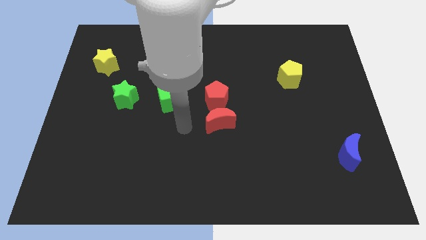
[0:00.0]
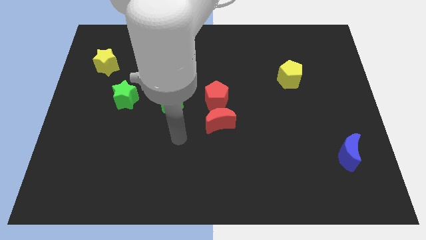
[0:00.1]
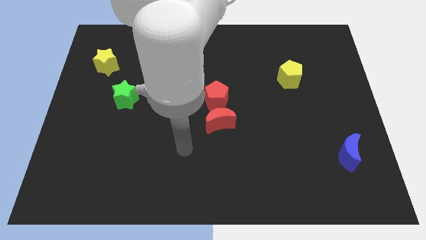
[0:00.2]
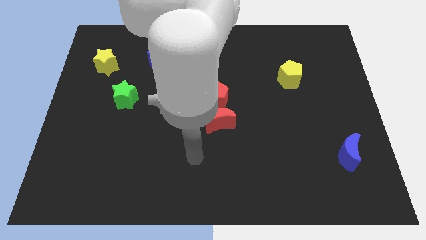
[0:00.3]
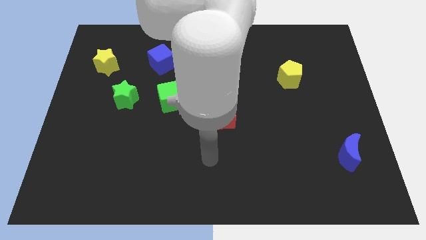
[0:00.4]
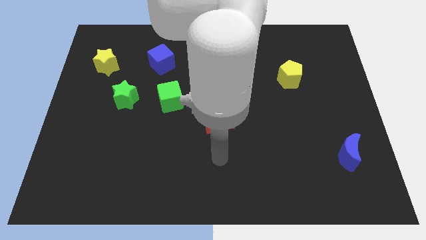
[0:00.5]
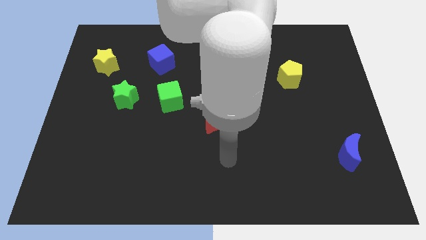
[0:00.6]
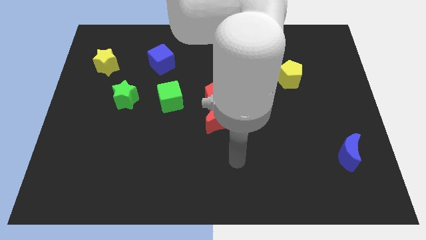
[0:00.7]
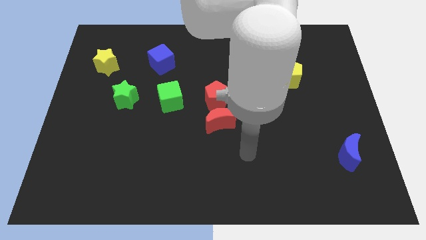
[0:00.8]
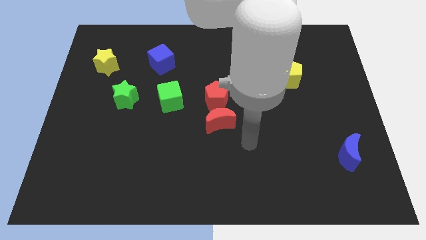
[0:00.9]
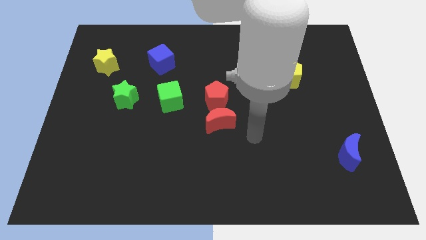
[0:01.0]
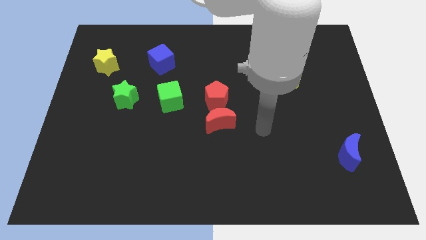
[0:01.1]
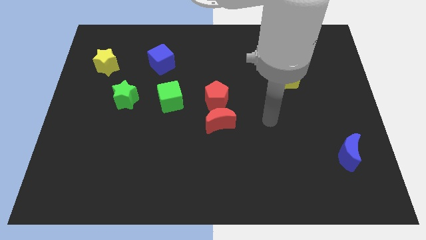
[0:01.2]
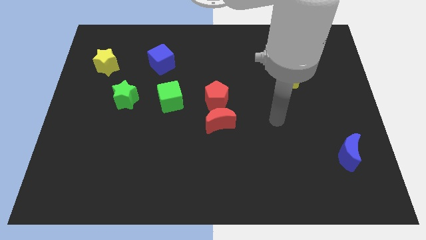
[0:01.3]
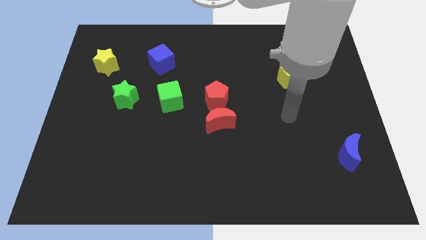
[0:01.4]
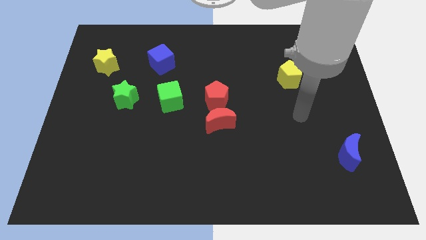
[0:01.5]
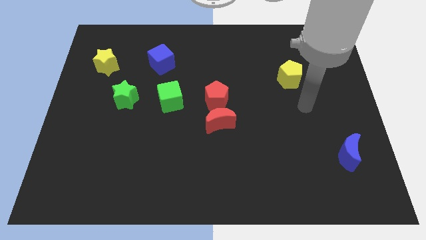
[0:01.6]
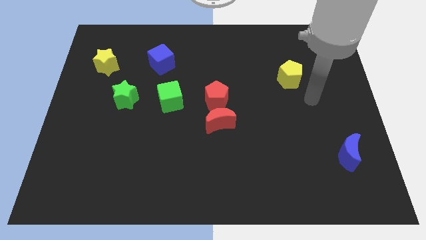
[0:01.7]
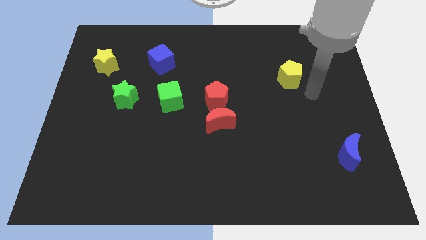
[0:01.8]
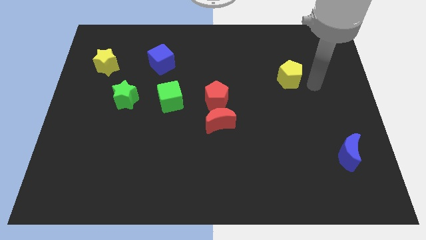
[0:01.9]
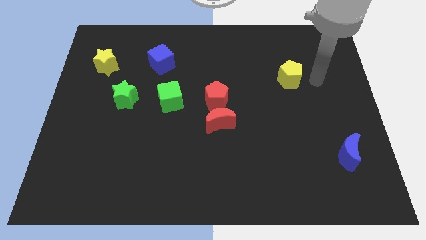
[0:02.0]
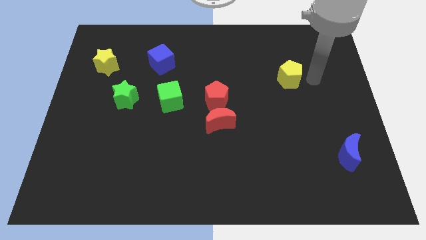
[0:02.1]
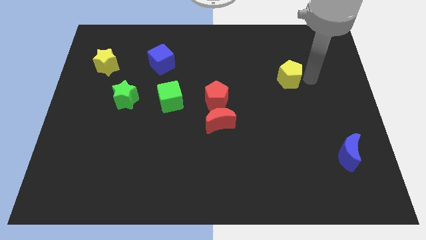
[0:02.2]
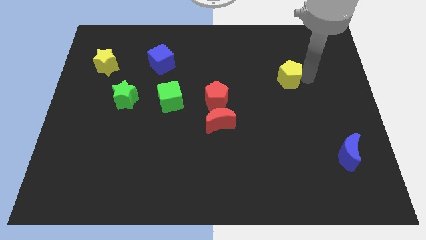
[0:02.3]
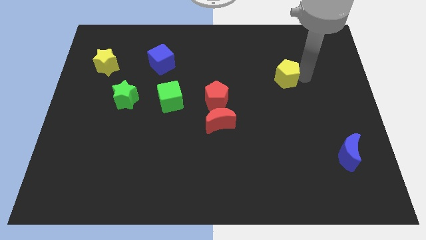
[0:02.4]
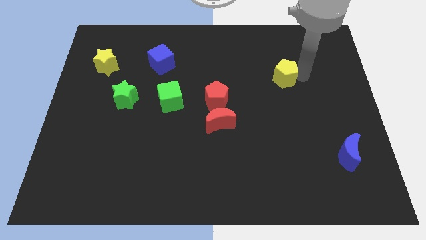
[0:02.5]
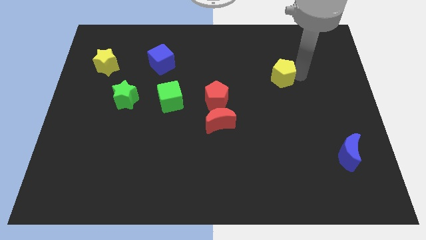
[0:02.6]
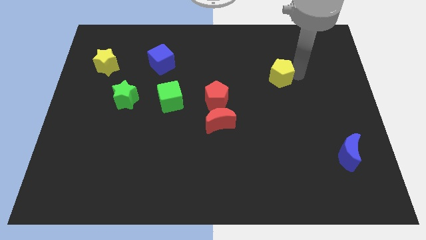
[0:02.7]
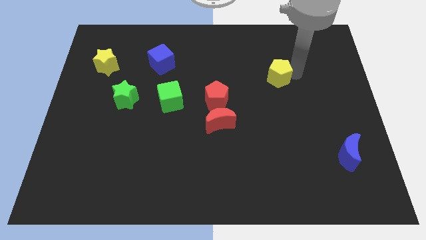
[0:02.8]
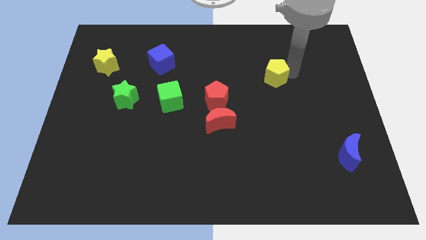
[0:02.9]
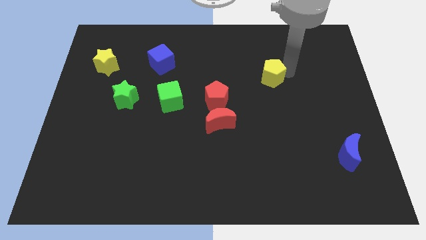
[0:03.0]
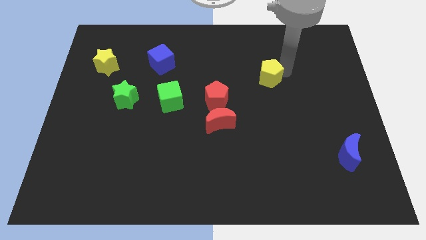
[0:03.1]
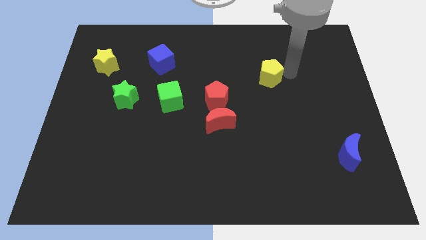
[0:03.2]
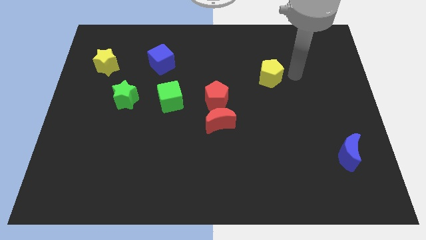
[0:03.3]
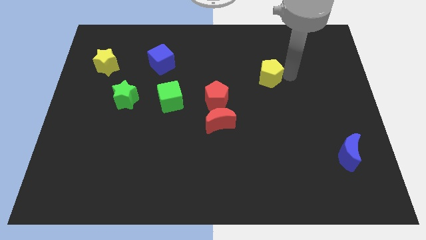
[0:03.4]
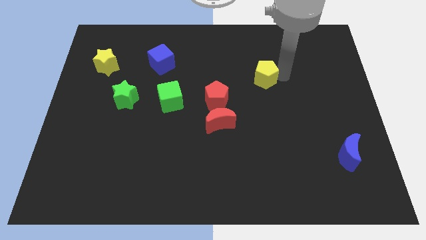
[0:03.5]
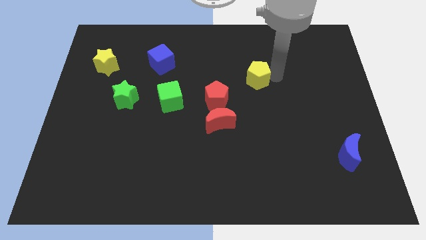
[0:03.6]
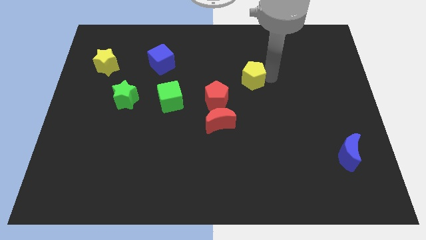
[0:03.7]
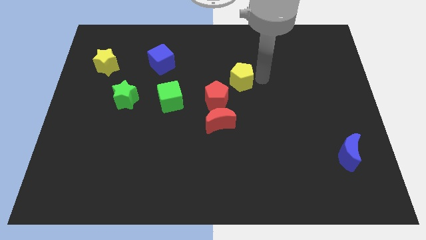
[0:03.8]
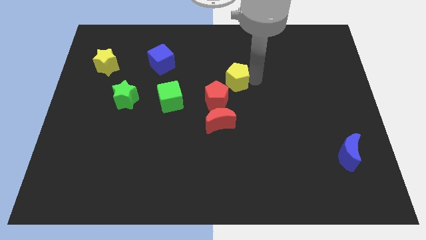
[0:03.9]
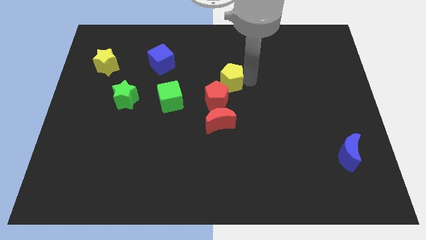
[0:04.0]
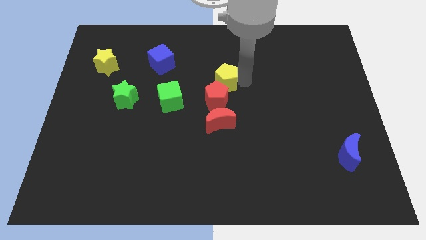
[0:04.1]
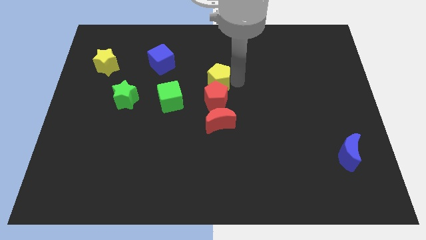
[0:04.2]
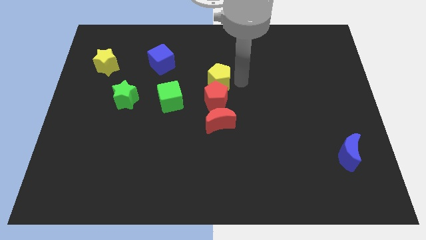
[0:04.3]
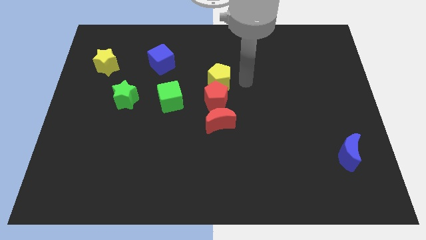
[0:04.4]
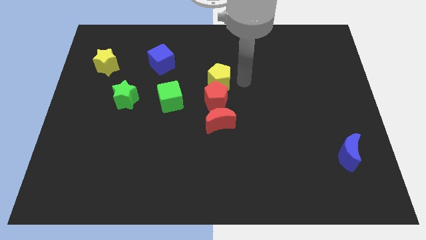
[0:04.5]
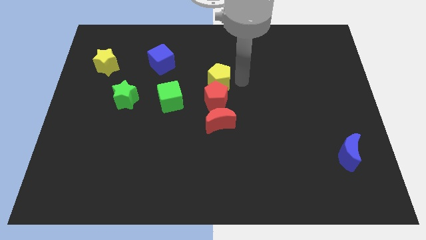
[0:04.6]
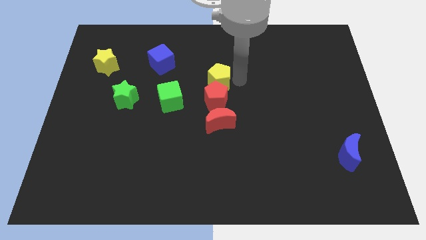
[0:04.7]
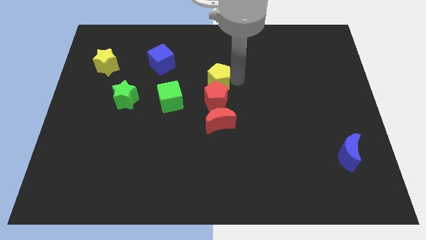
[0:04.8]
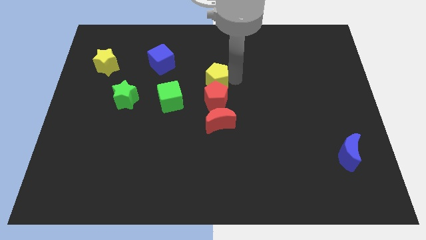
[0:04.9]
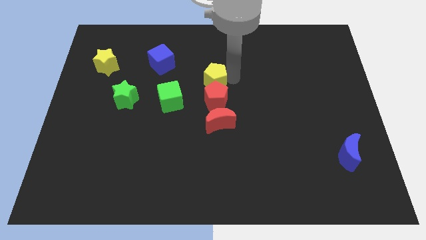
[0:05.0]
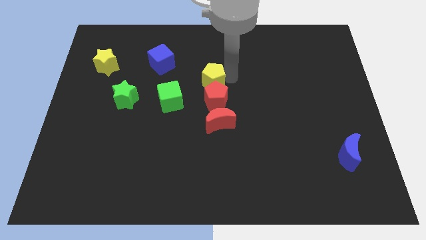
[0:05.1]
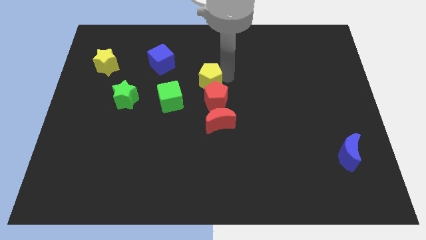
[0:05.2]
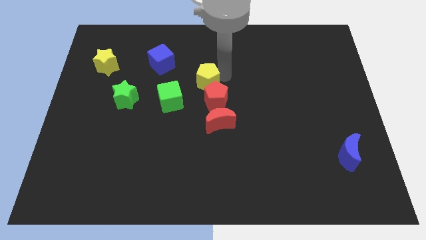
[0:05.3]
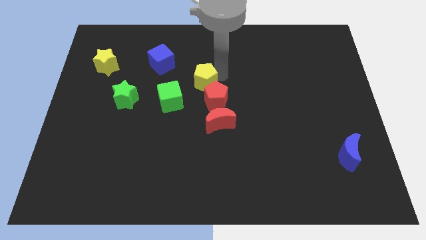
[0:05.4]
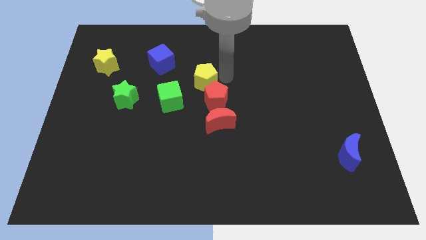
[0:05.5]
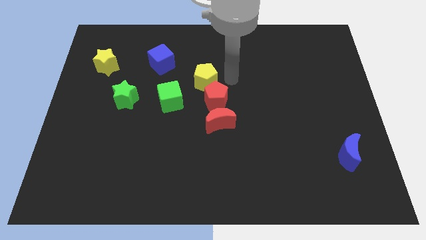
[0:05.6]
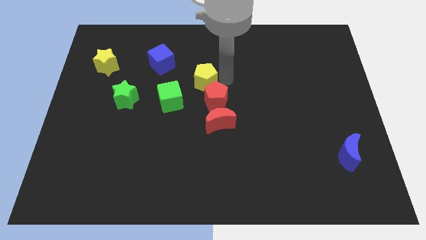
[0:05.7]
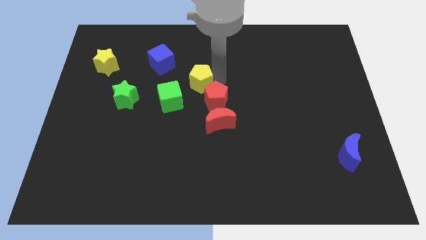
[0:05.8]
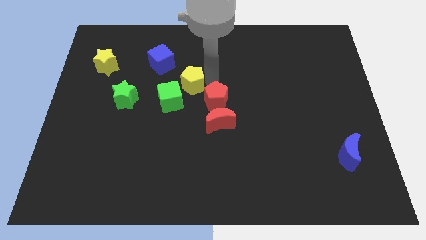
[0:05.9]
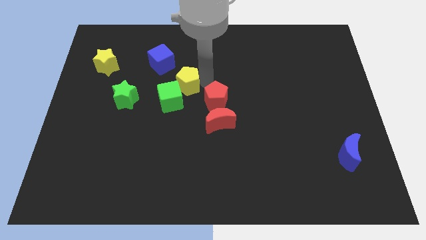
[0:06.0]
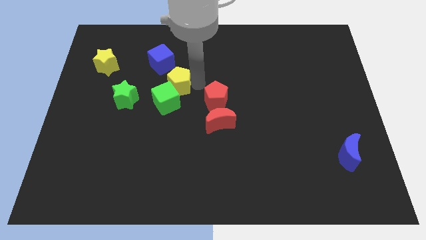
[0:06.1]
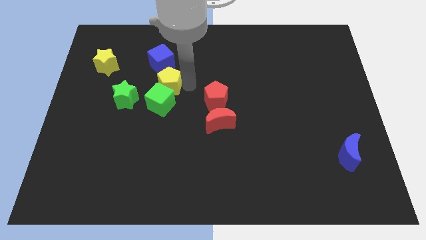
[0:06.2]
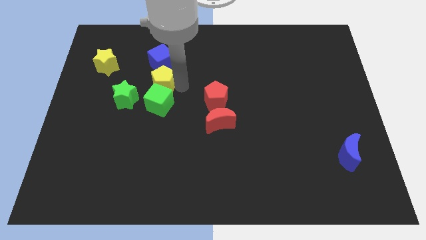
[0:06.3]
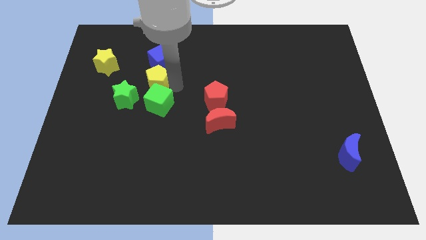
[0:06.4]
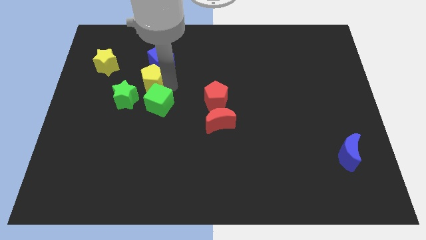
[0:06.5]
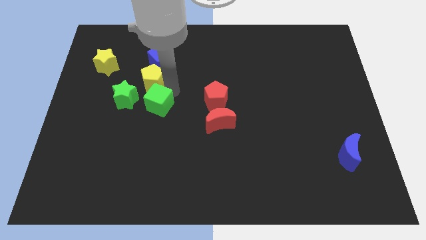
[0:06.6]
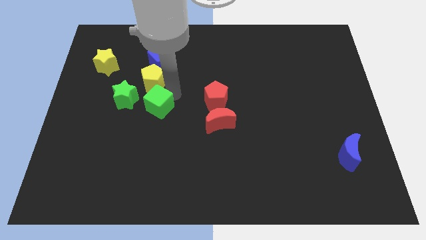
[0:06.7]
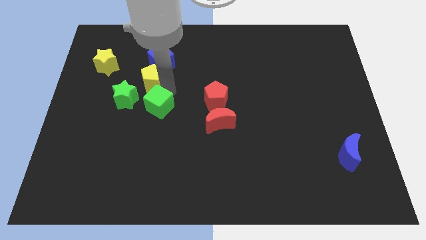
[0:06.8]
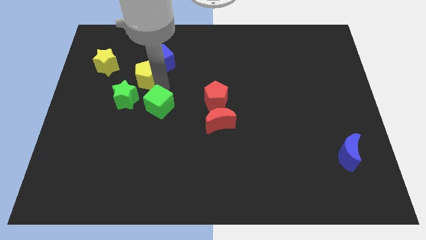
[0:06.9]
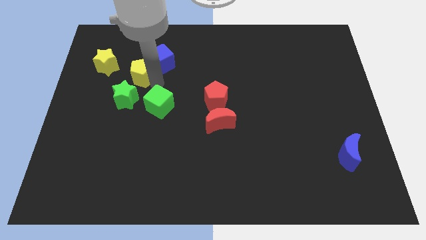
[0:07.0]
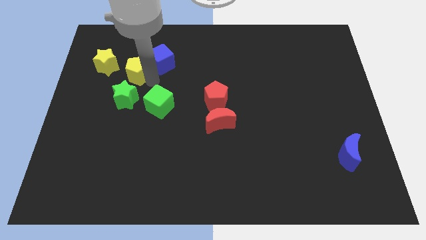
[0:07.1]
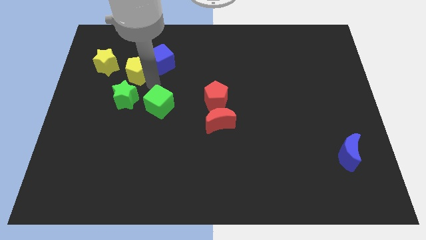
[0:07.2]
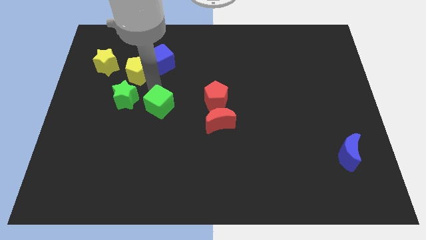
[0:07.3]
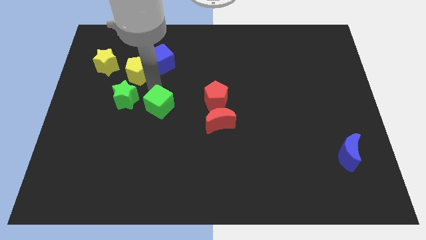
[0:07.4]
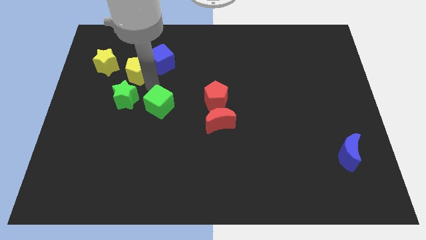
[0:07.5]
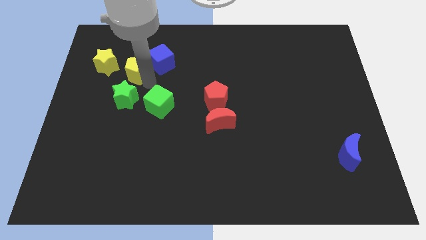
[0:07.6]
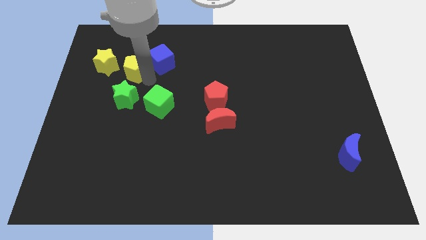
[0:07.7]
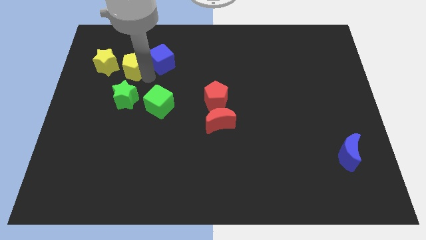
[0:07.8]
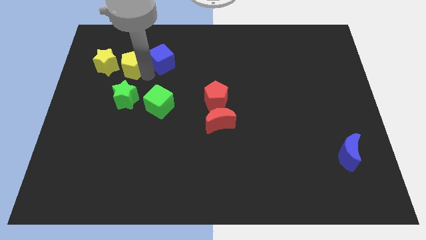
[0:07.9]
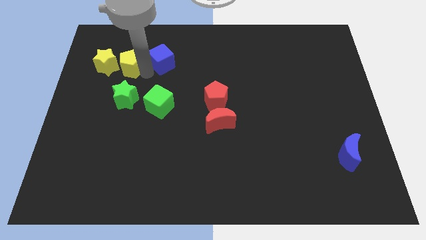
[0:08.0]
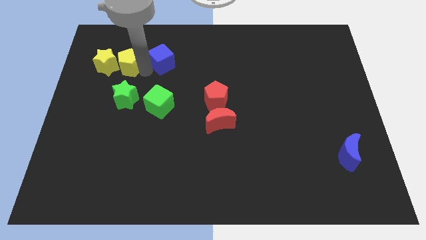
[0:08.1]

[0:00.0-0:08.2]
put the yellow pentagon close to the yellow star
